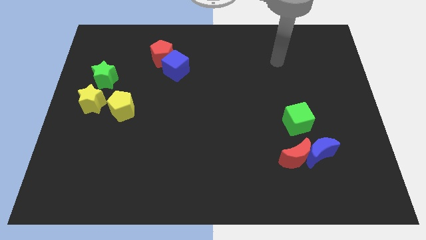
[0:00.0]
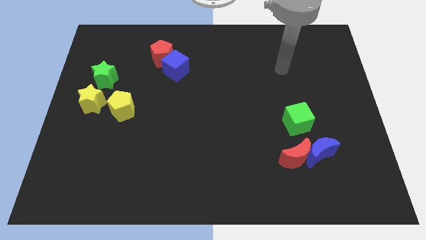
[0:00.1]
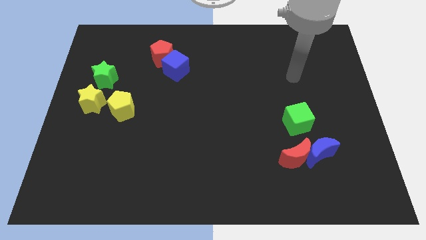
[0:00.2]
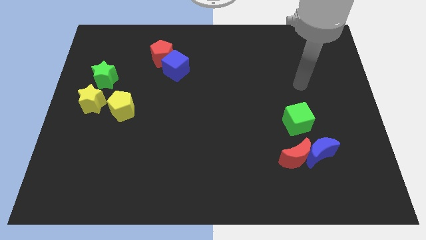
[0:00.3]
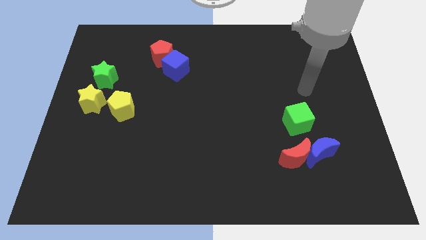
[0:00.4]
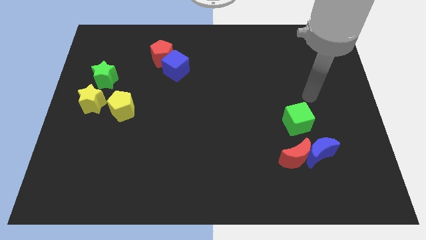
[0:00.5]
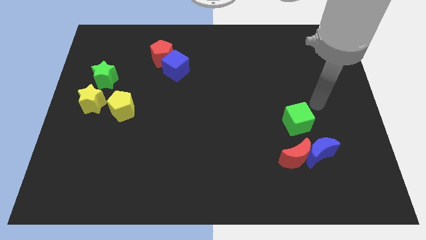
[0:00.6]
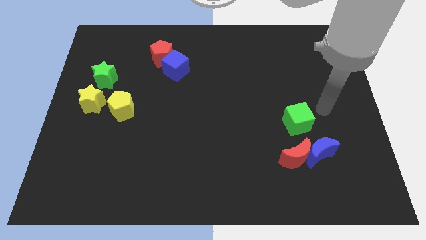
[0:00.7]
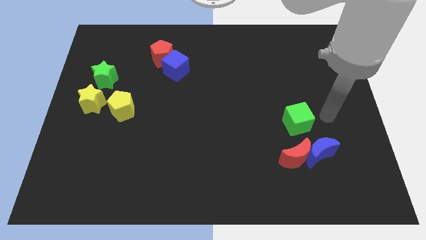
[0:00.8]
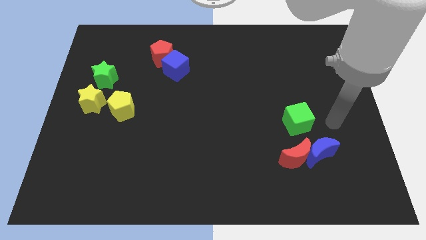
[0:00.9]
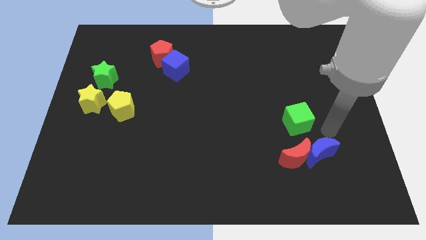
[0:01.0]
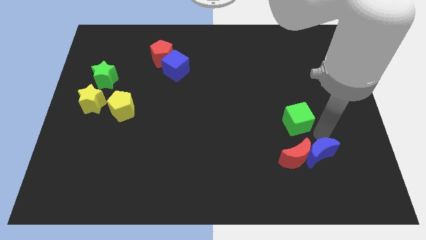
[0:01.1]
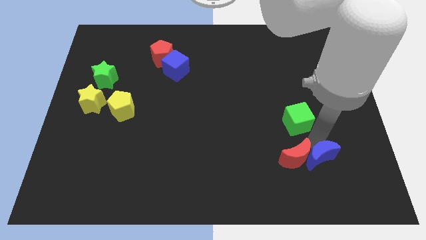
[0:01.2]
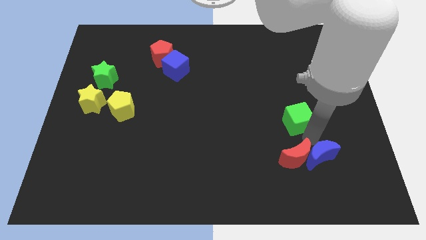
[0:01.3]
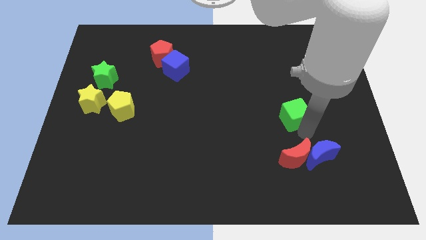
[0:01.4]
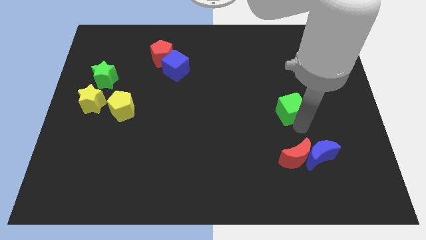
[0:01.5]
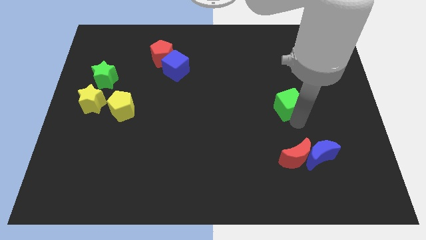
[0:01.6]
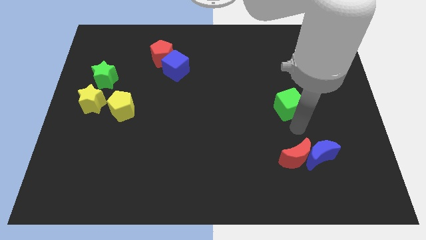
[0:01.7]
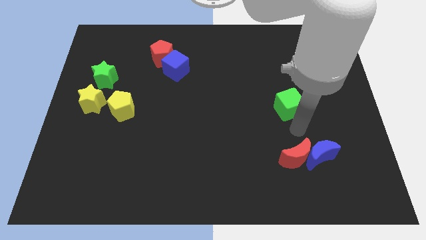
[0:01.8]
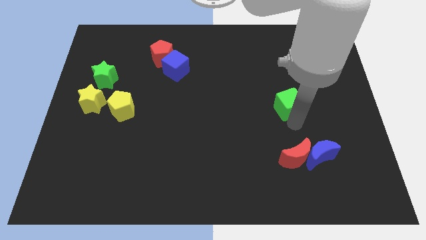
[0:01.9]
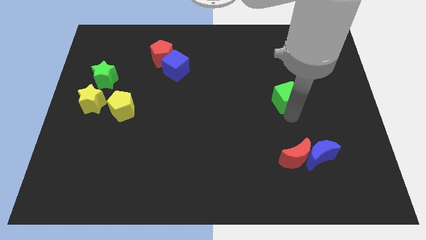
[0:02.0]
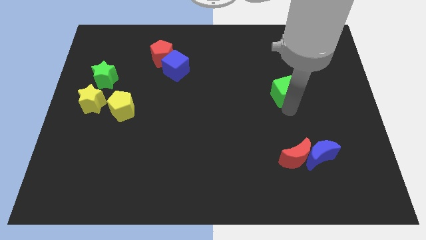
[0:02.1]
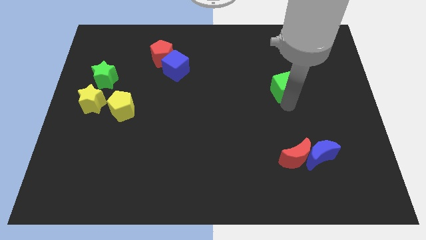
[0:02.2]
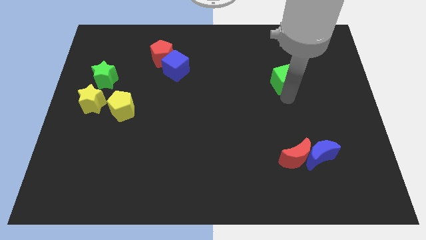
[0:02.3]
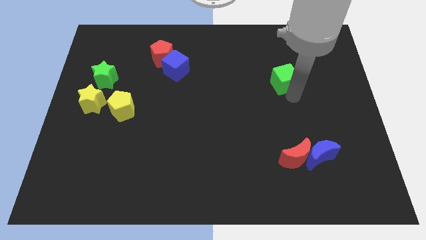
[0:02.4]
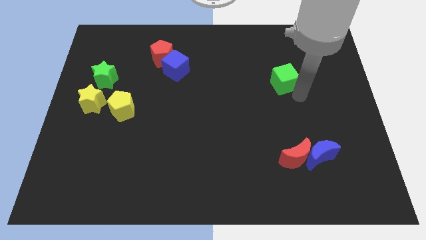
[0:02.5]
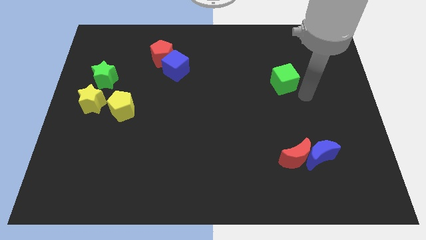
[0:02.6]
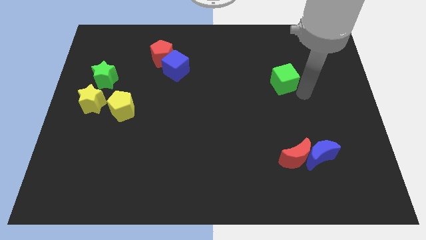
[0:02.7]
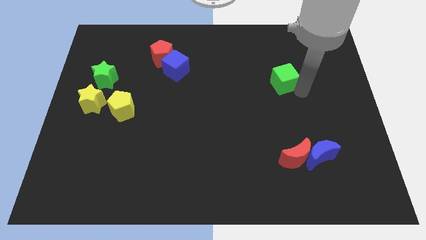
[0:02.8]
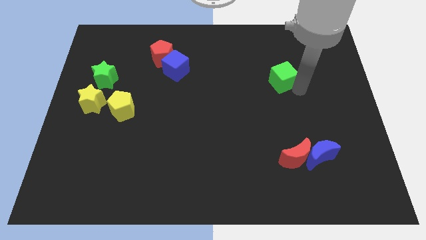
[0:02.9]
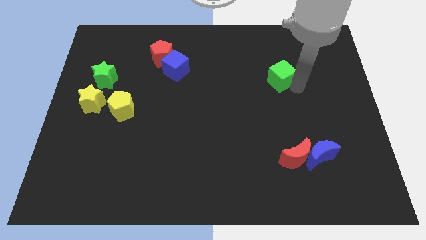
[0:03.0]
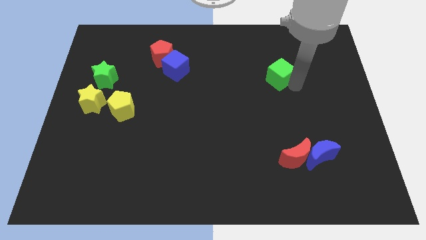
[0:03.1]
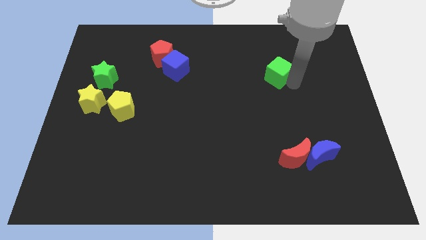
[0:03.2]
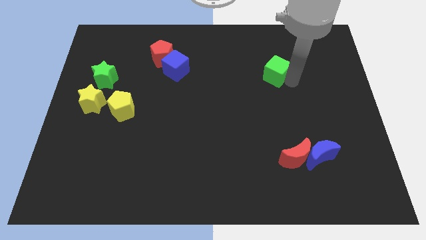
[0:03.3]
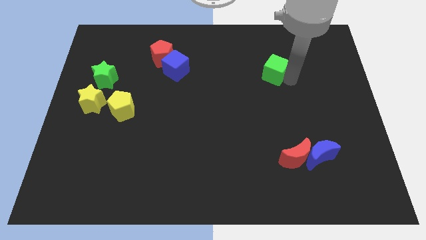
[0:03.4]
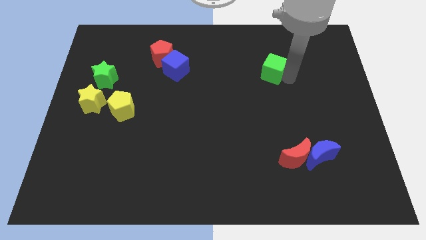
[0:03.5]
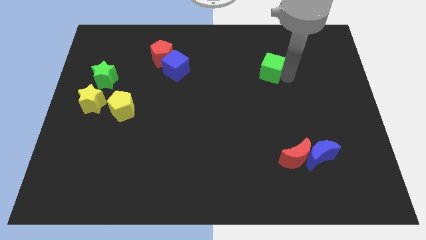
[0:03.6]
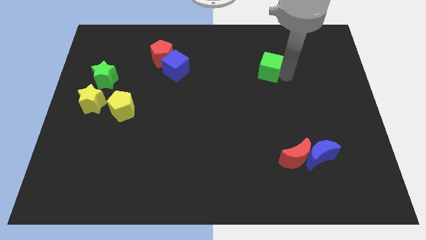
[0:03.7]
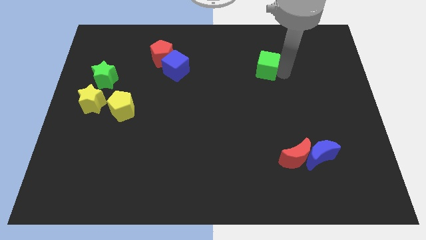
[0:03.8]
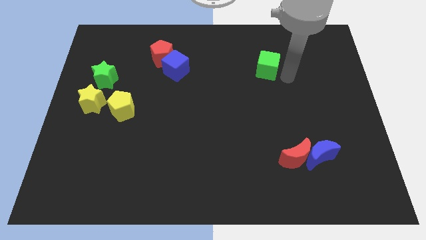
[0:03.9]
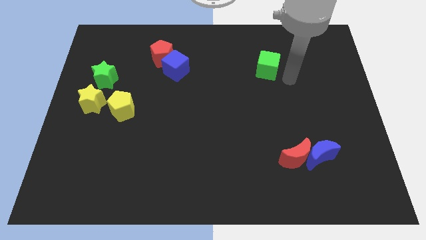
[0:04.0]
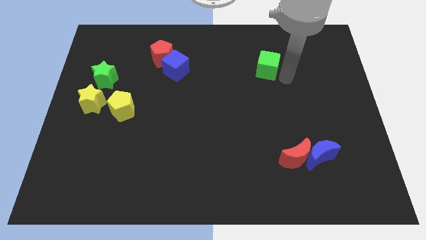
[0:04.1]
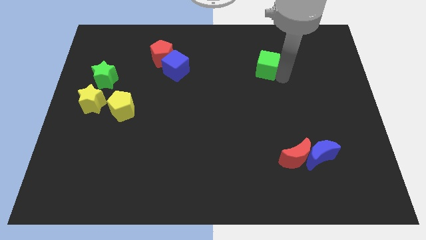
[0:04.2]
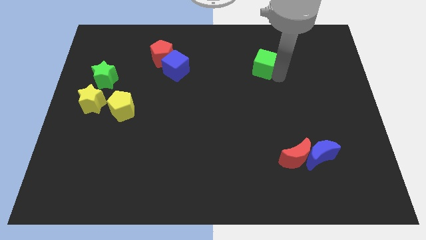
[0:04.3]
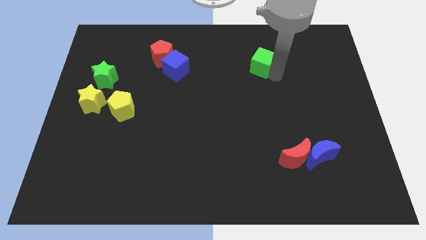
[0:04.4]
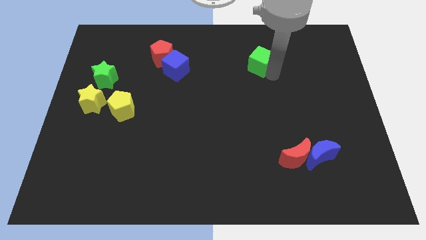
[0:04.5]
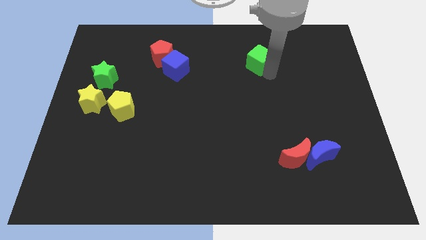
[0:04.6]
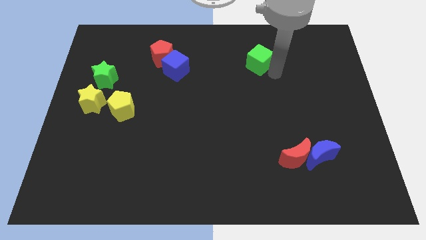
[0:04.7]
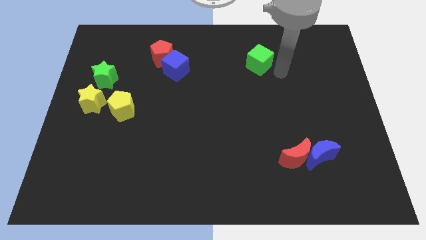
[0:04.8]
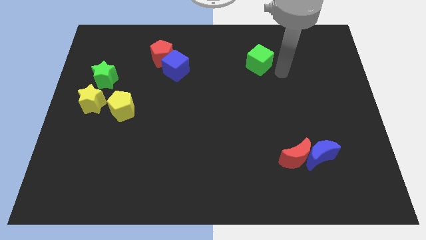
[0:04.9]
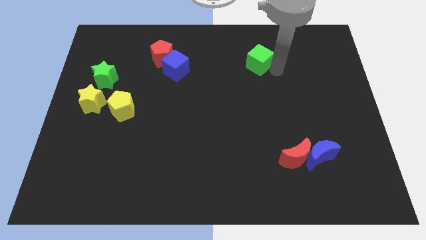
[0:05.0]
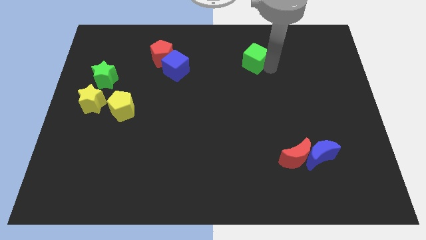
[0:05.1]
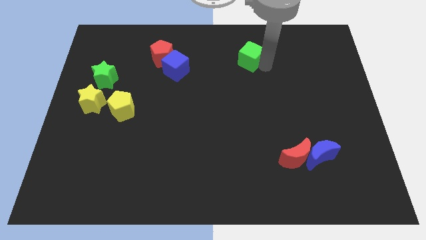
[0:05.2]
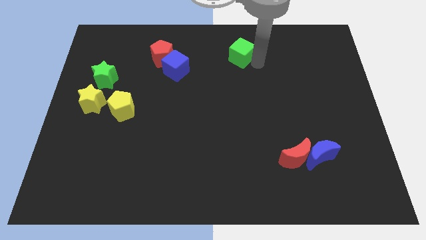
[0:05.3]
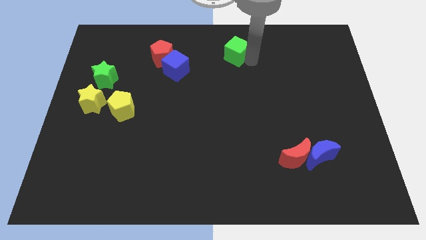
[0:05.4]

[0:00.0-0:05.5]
put the green cube to the top side
